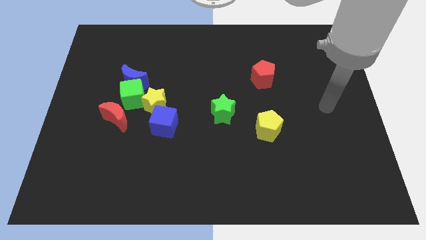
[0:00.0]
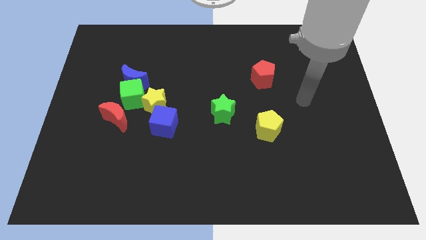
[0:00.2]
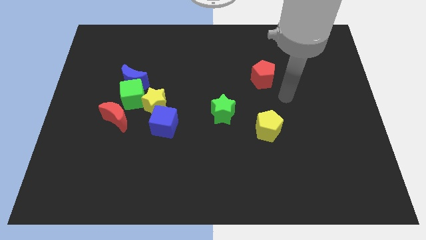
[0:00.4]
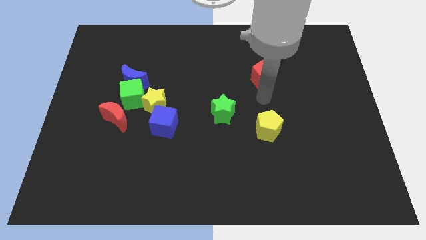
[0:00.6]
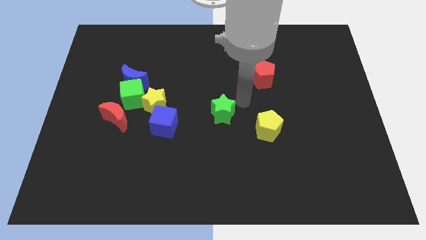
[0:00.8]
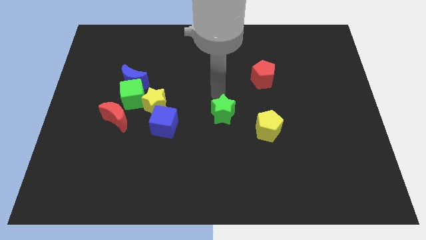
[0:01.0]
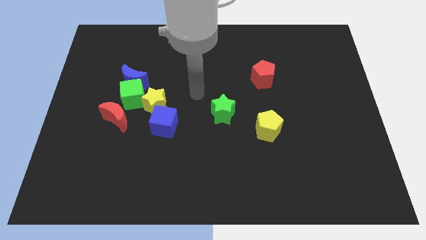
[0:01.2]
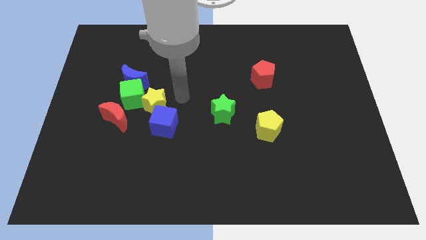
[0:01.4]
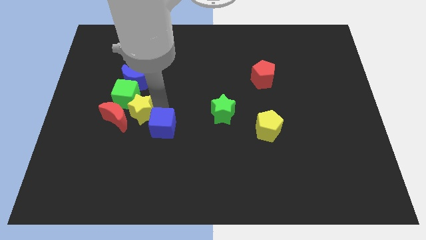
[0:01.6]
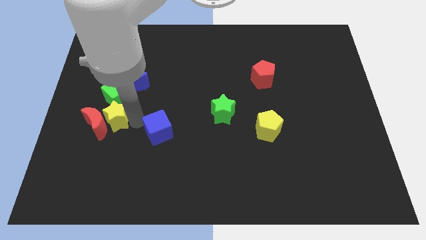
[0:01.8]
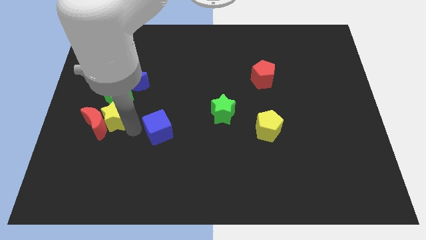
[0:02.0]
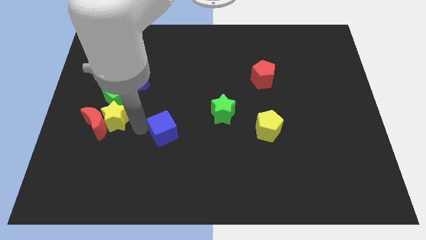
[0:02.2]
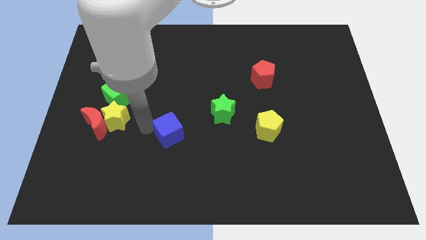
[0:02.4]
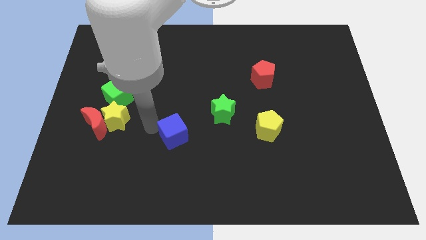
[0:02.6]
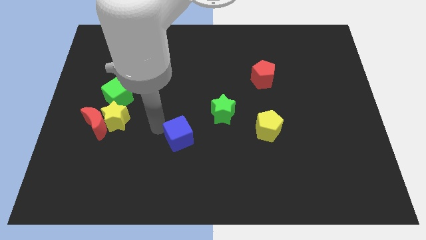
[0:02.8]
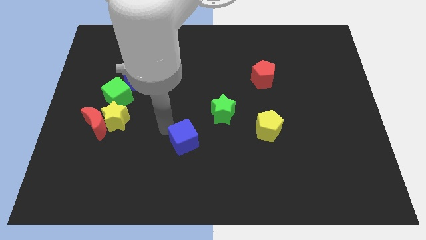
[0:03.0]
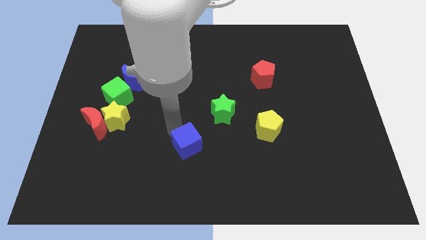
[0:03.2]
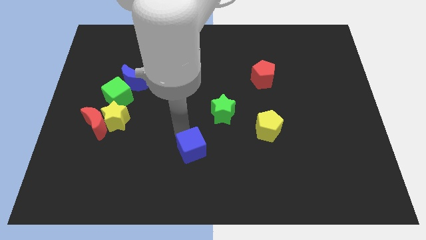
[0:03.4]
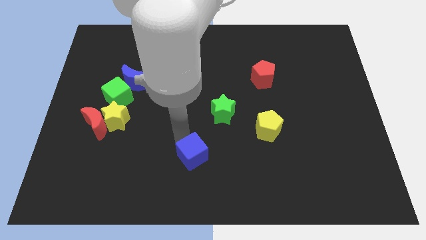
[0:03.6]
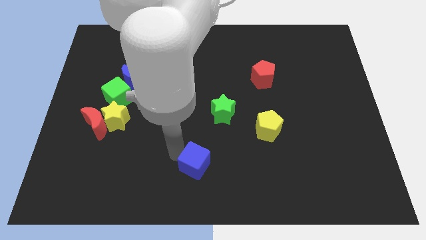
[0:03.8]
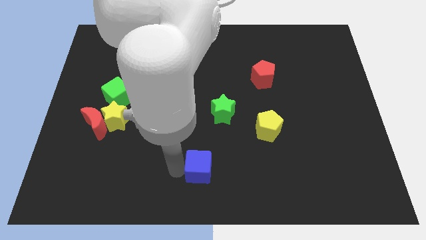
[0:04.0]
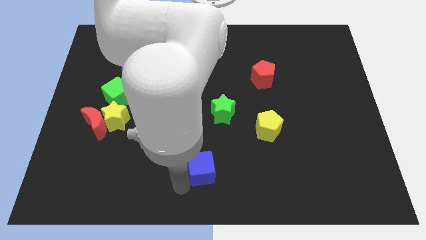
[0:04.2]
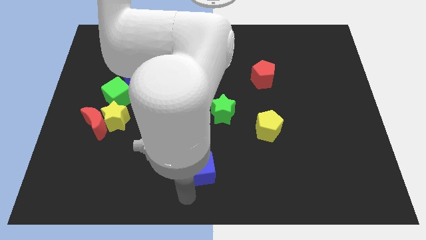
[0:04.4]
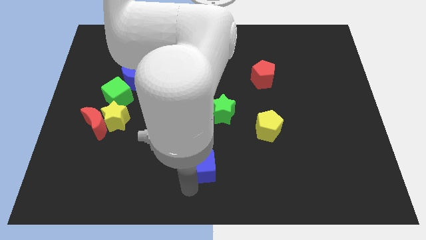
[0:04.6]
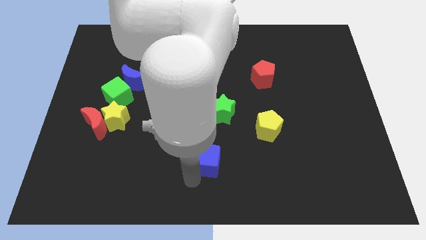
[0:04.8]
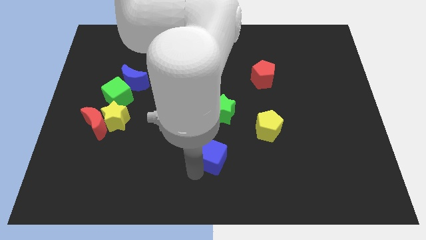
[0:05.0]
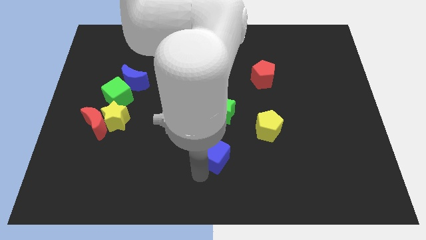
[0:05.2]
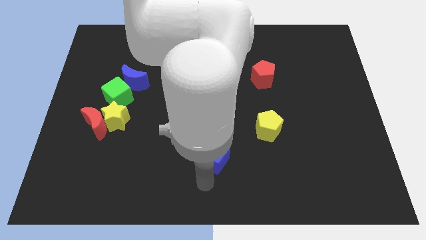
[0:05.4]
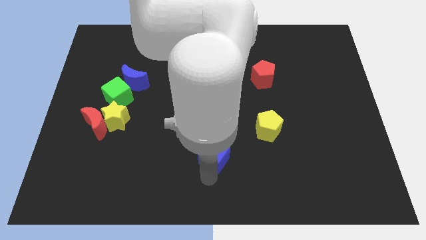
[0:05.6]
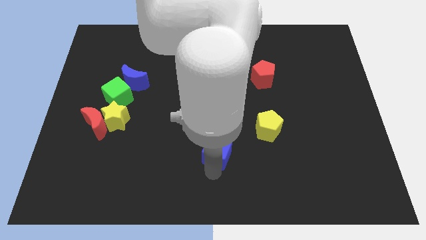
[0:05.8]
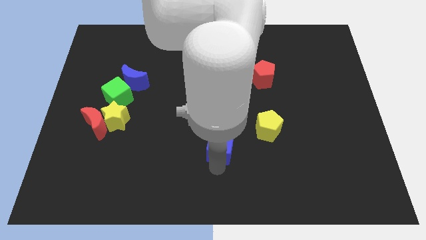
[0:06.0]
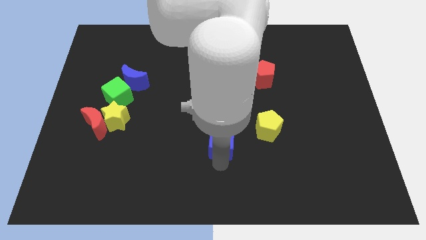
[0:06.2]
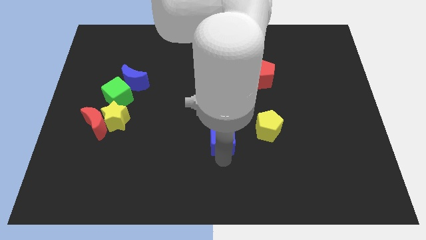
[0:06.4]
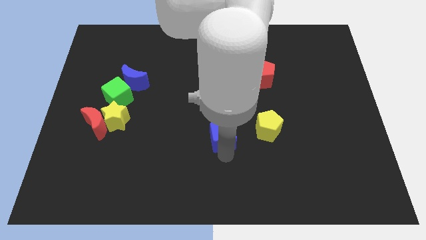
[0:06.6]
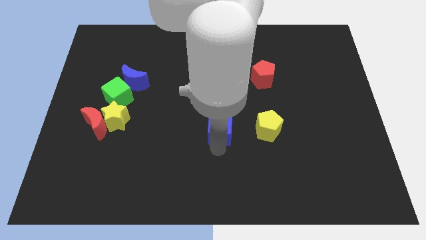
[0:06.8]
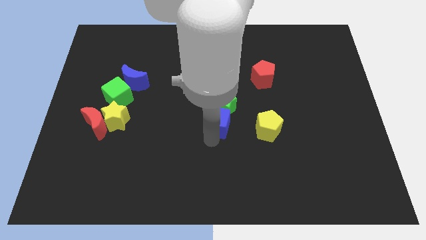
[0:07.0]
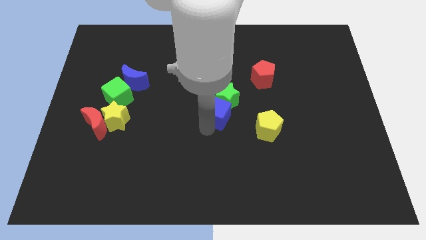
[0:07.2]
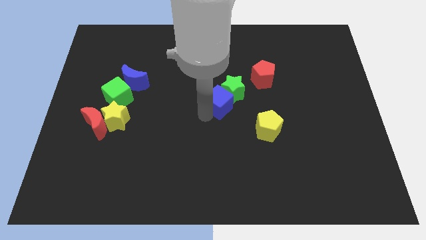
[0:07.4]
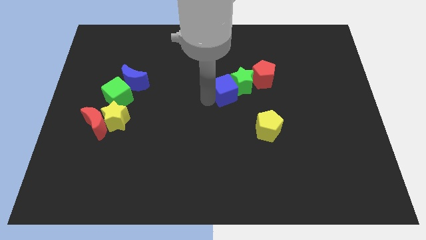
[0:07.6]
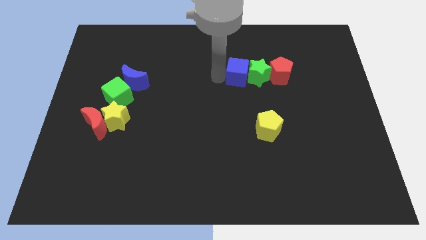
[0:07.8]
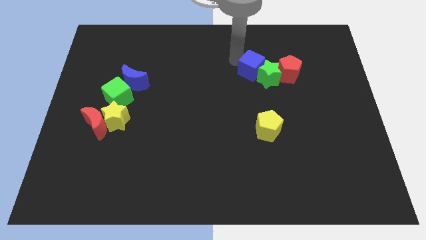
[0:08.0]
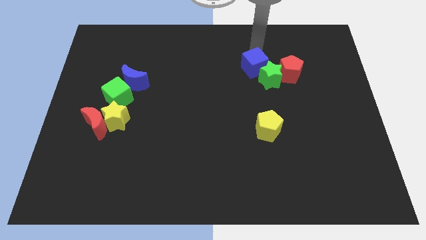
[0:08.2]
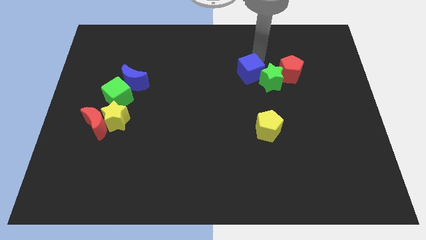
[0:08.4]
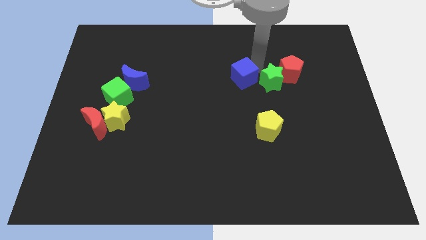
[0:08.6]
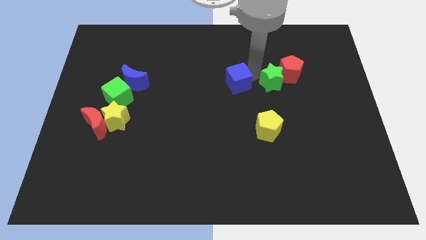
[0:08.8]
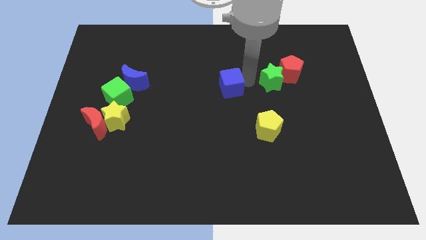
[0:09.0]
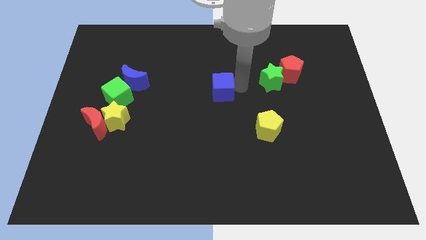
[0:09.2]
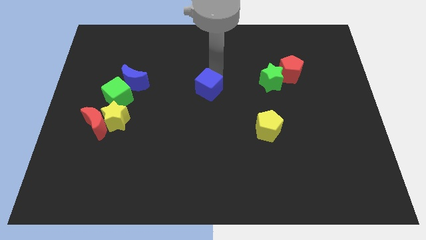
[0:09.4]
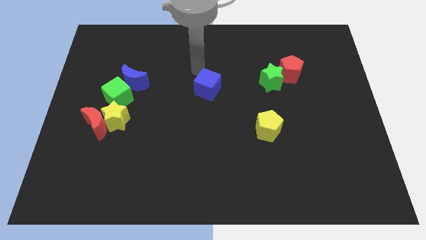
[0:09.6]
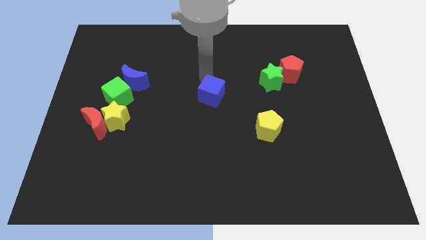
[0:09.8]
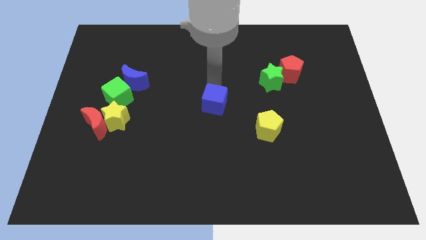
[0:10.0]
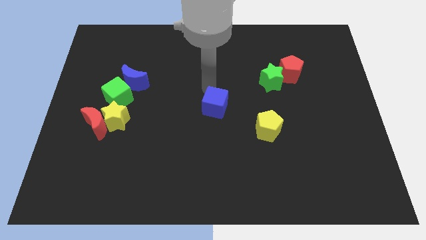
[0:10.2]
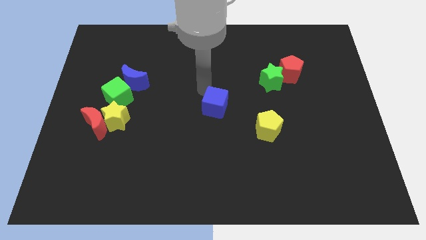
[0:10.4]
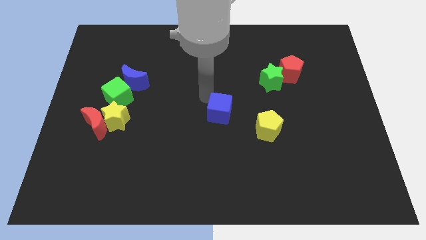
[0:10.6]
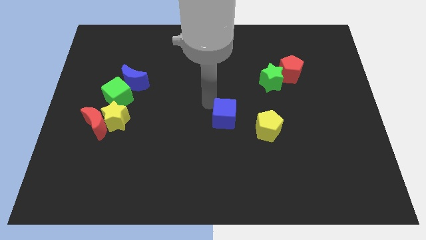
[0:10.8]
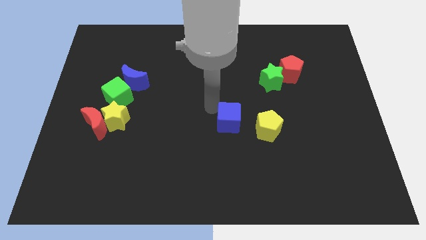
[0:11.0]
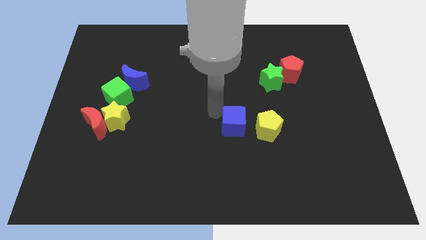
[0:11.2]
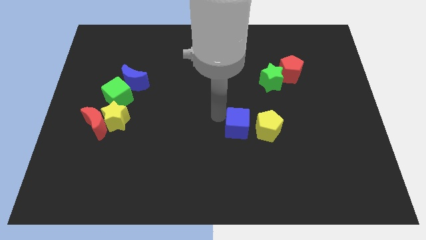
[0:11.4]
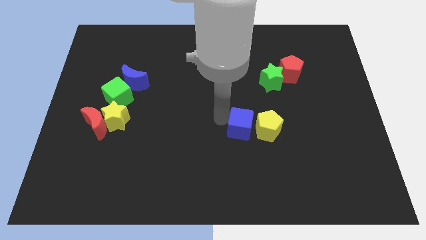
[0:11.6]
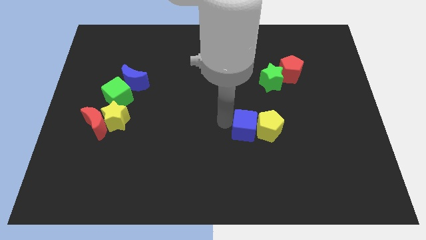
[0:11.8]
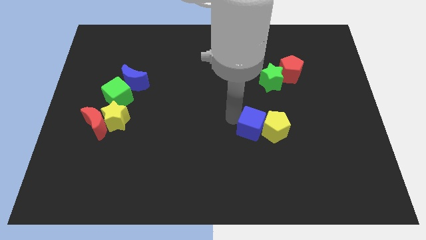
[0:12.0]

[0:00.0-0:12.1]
move the blue cube to the right

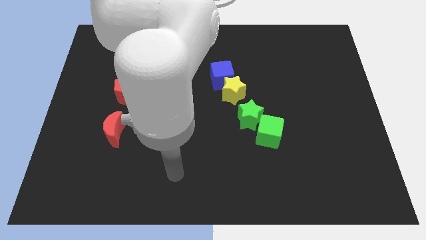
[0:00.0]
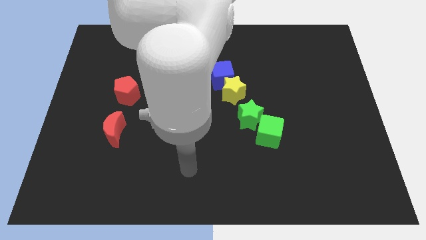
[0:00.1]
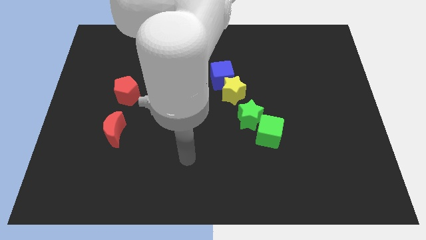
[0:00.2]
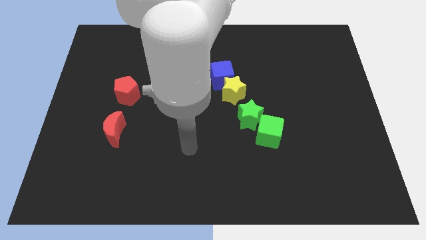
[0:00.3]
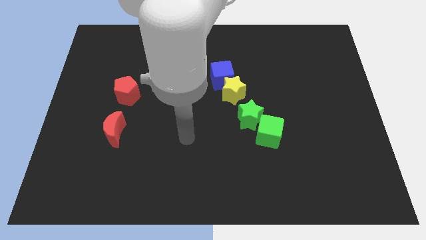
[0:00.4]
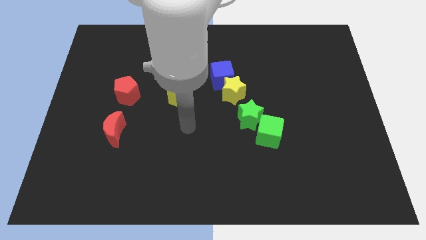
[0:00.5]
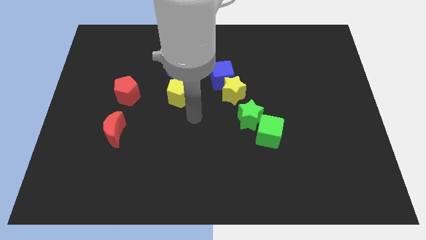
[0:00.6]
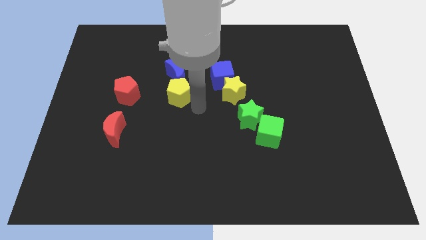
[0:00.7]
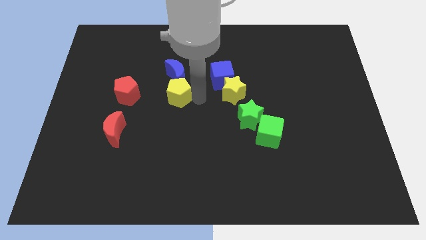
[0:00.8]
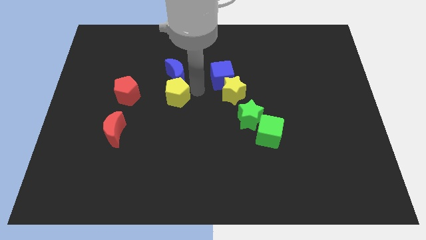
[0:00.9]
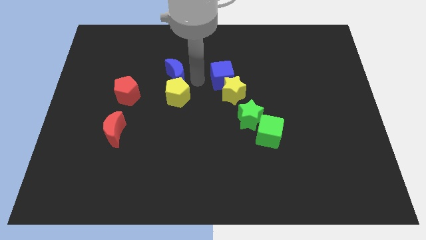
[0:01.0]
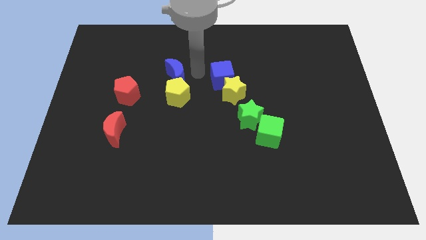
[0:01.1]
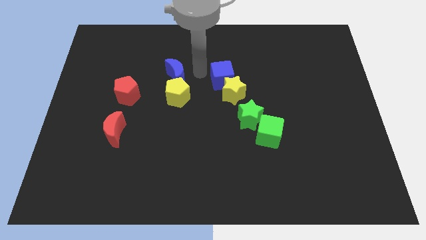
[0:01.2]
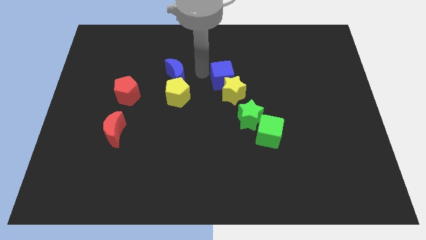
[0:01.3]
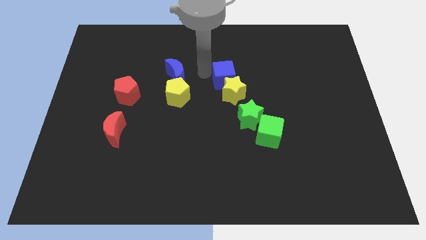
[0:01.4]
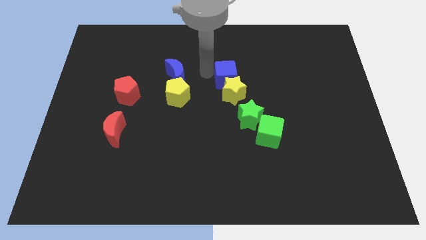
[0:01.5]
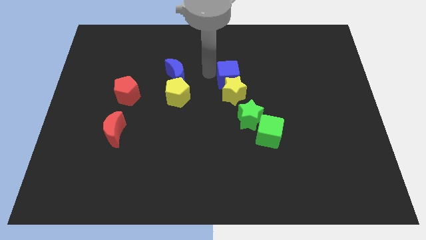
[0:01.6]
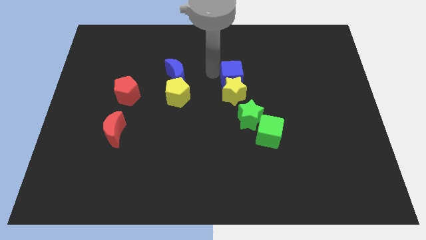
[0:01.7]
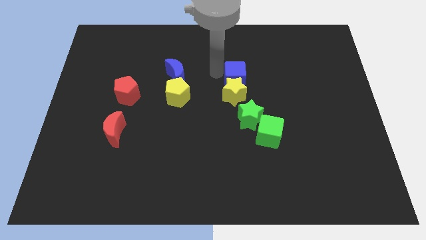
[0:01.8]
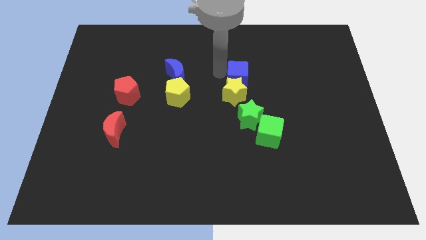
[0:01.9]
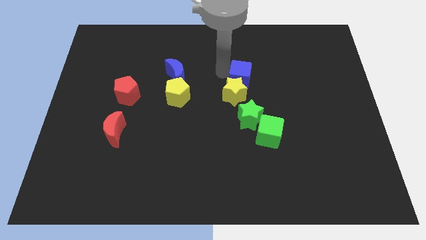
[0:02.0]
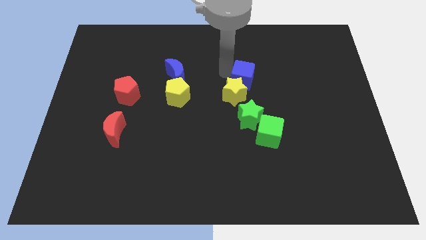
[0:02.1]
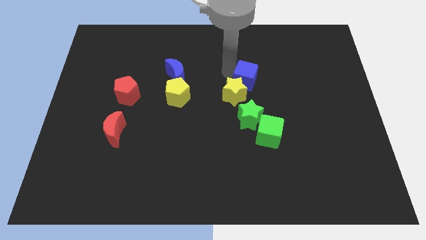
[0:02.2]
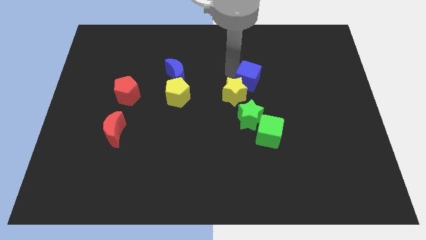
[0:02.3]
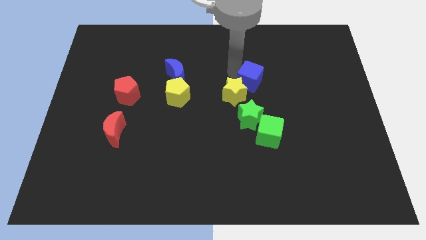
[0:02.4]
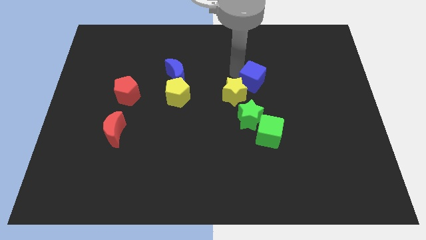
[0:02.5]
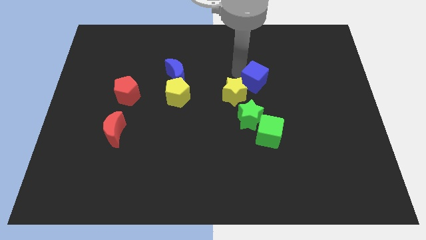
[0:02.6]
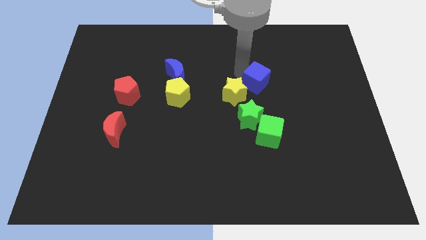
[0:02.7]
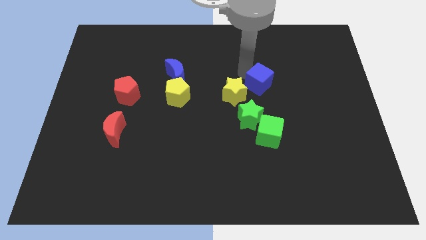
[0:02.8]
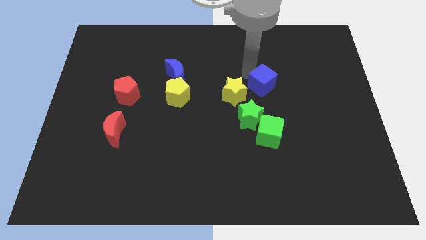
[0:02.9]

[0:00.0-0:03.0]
slightly slide the blue cube down and to the right
